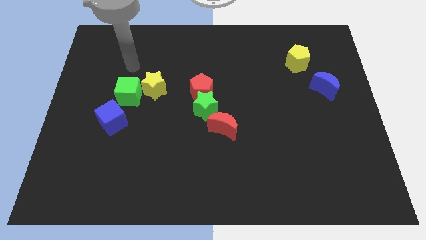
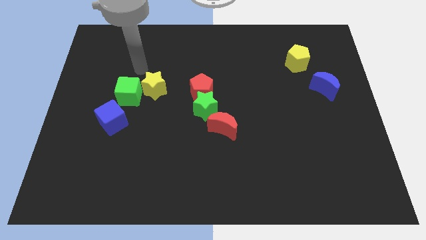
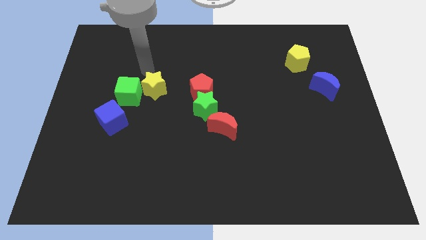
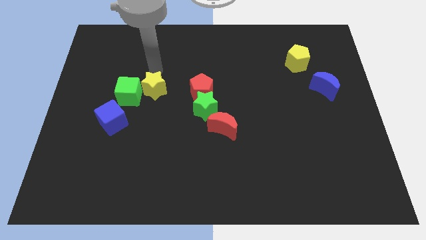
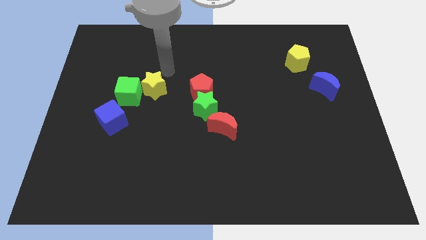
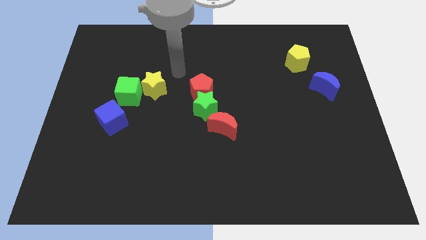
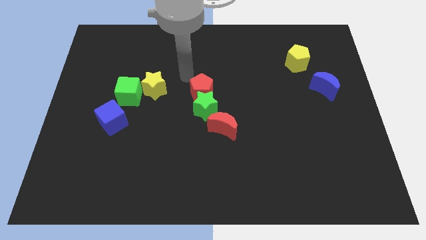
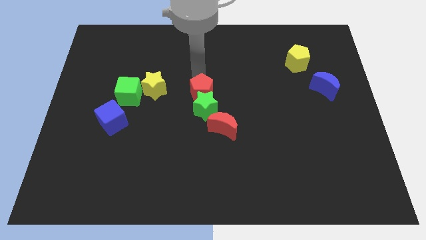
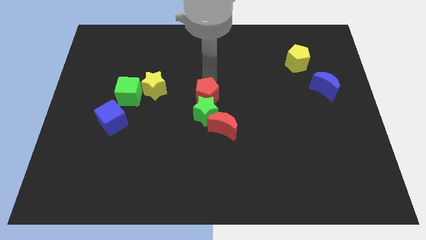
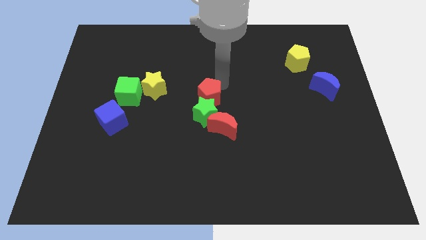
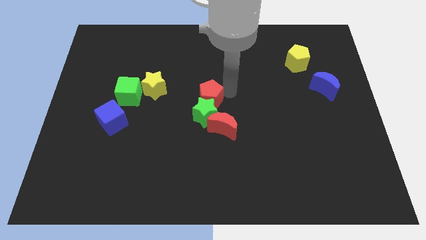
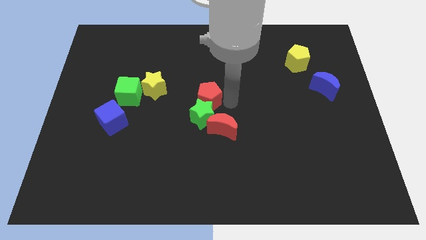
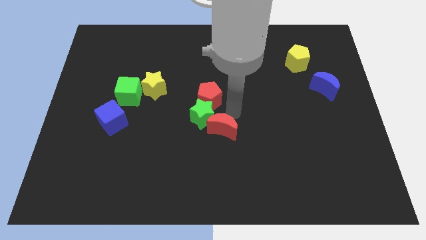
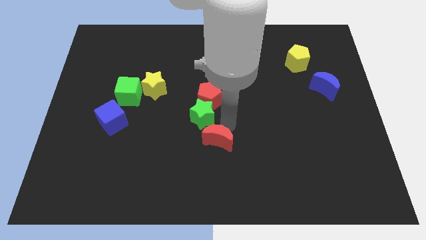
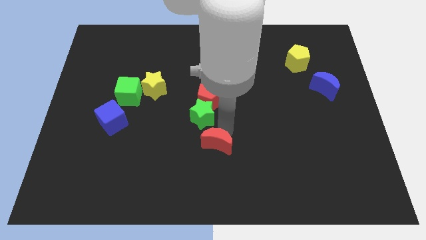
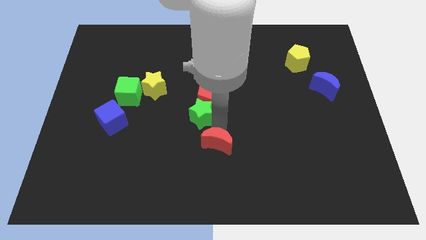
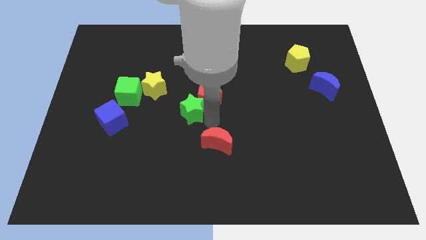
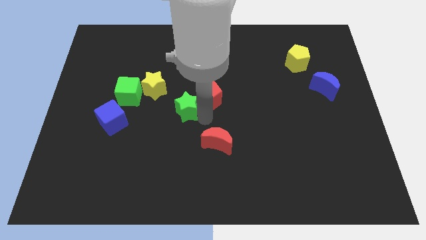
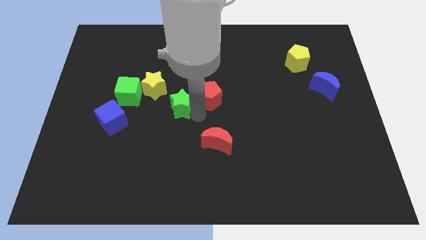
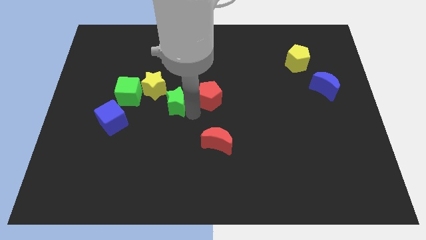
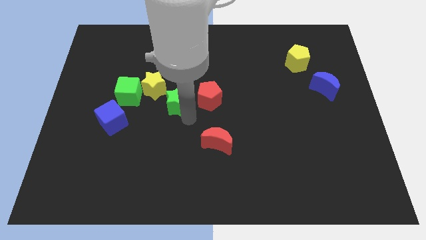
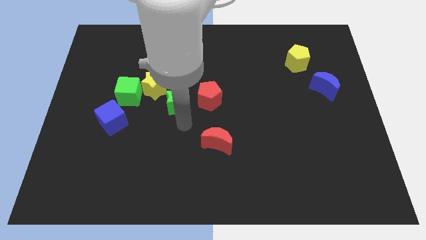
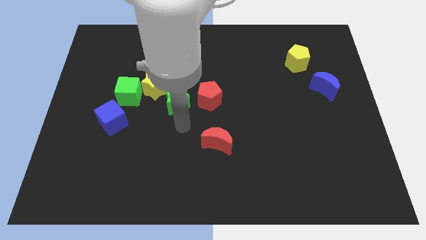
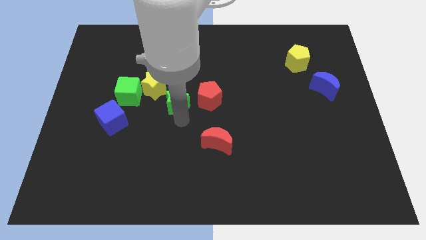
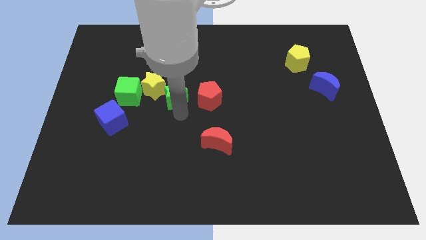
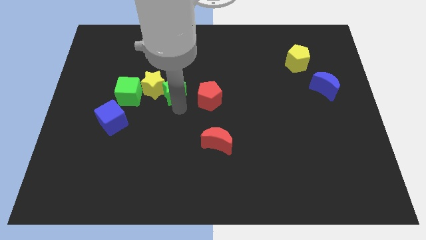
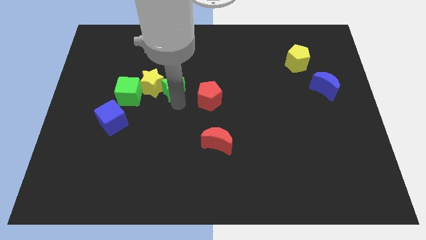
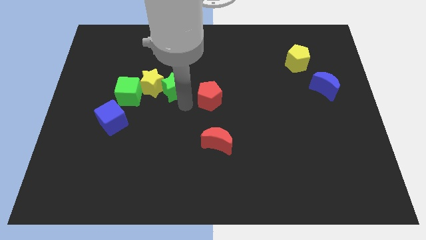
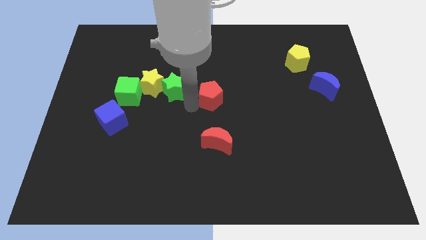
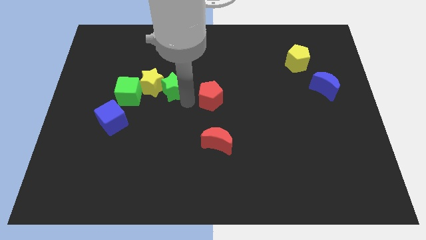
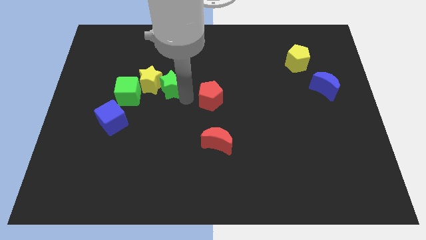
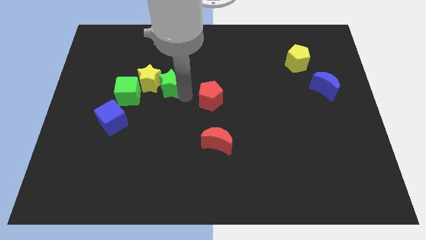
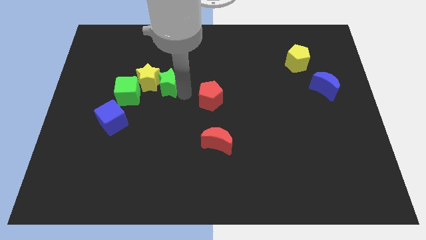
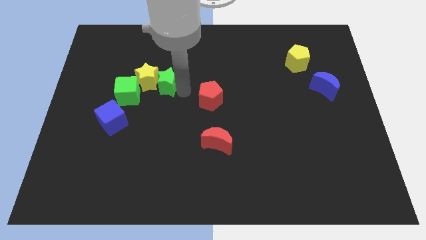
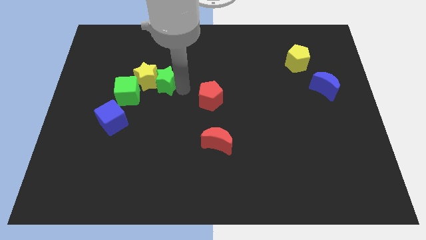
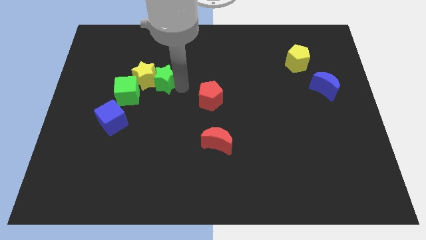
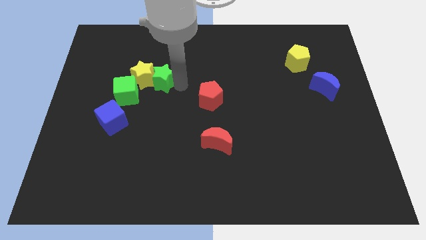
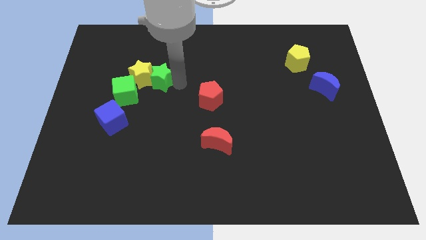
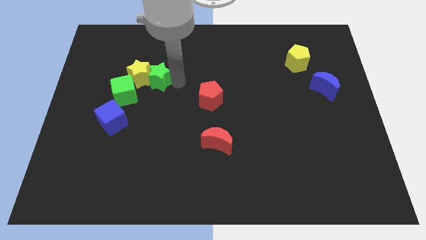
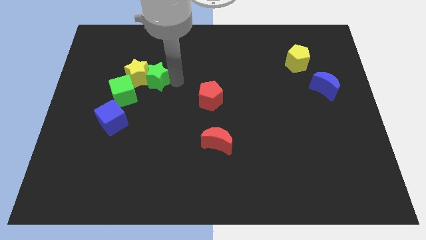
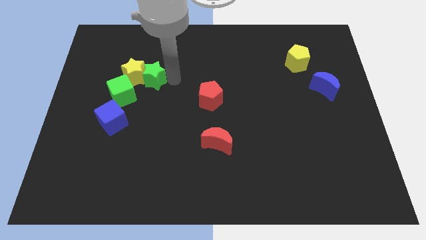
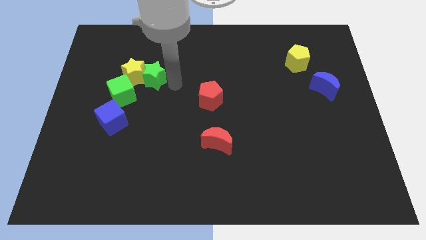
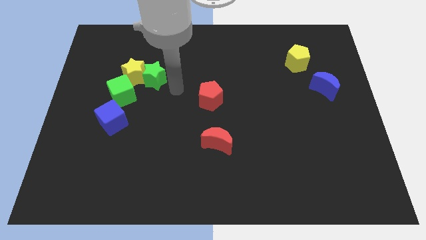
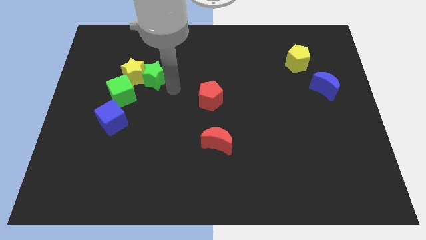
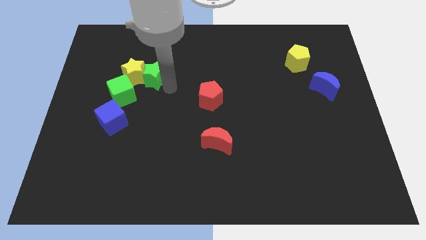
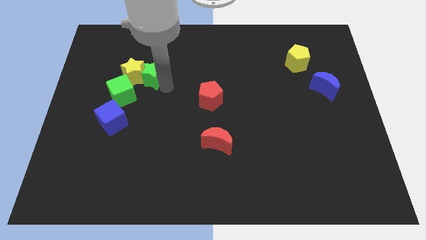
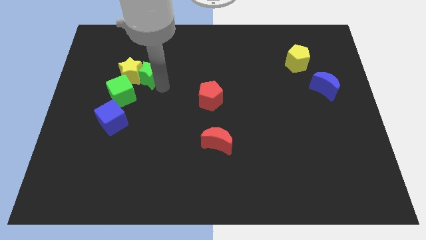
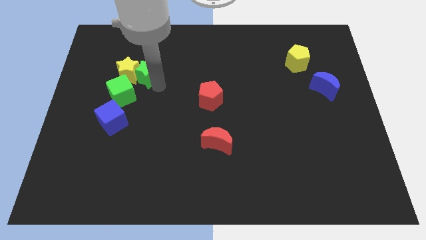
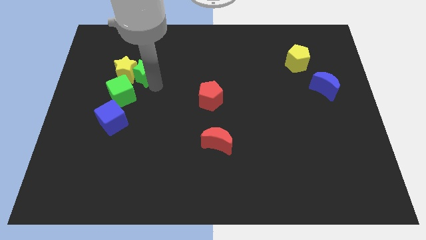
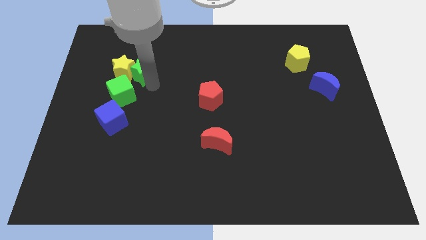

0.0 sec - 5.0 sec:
put the green star to the top of the green cube

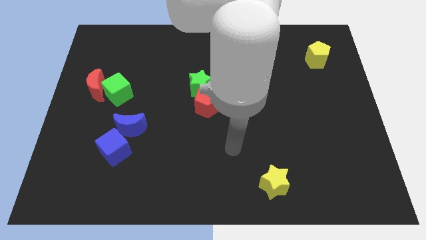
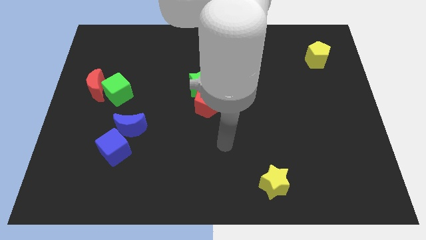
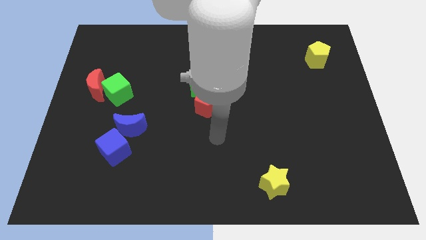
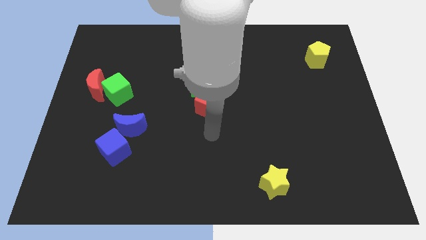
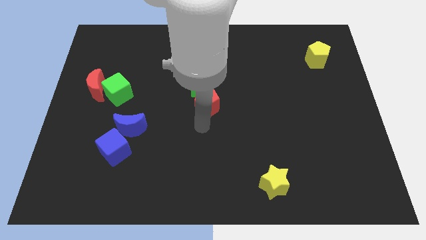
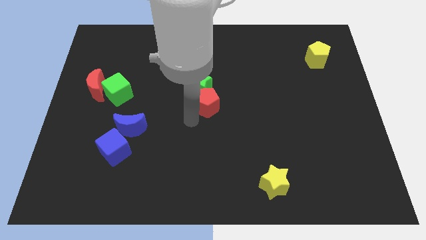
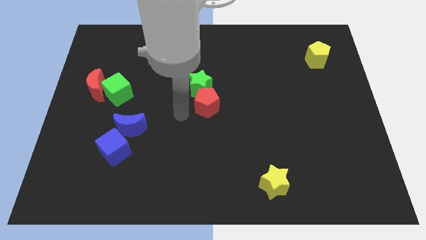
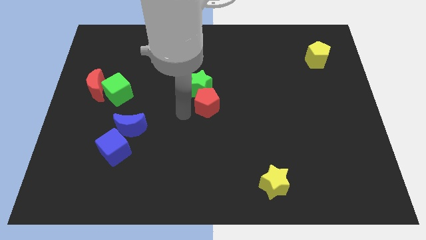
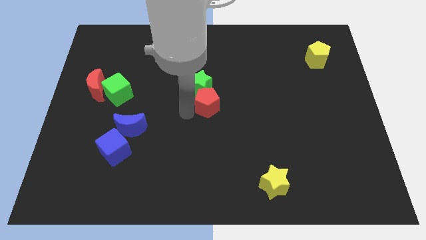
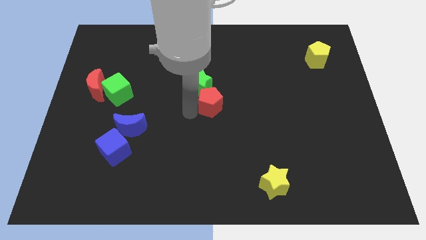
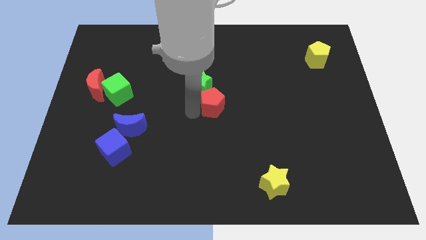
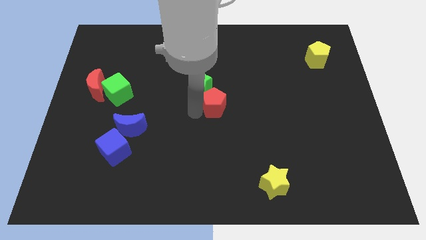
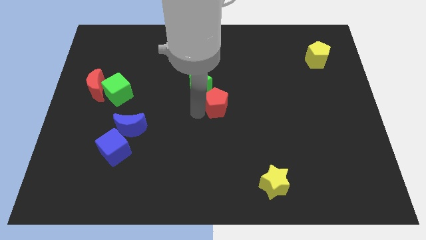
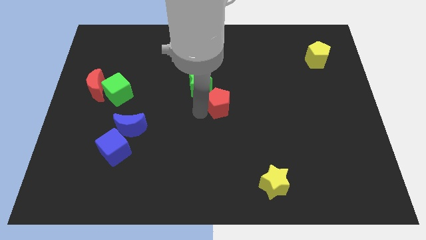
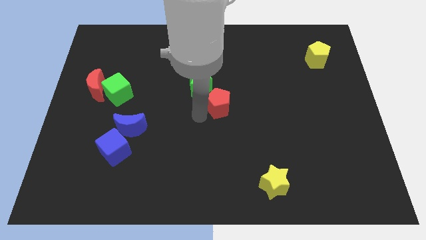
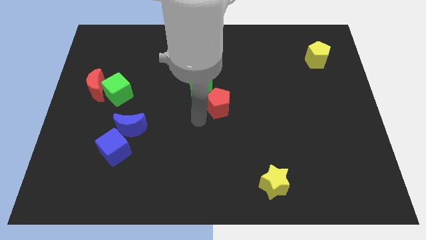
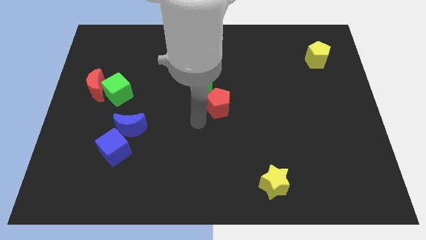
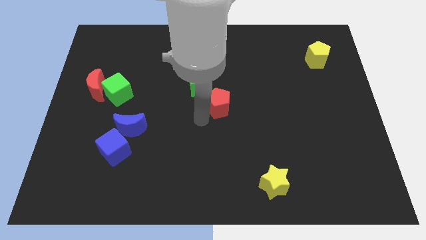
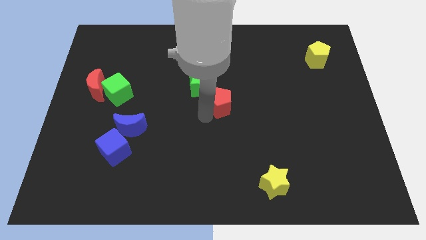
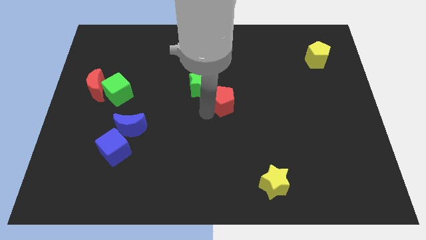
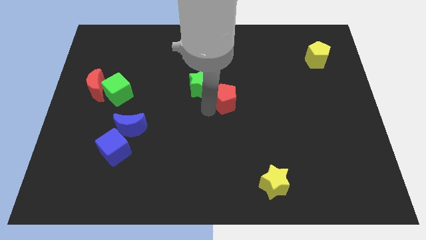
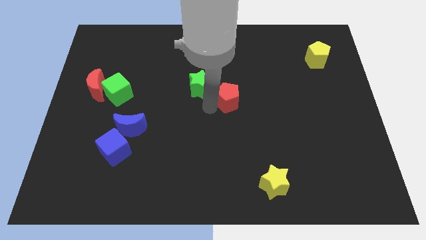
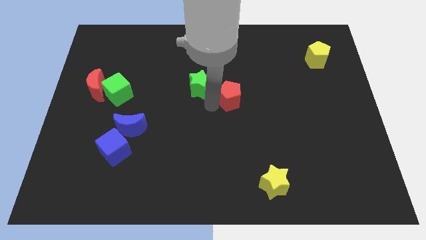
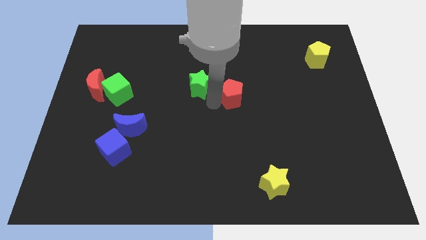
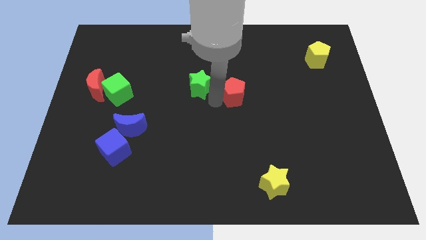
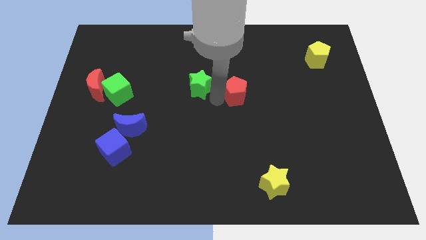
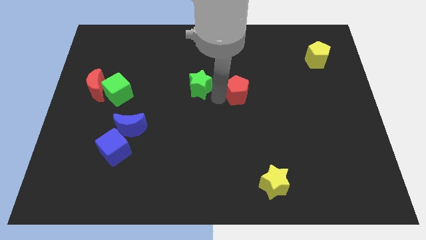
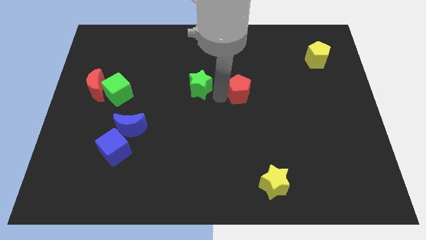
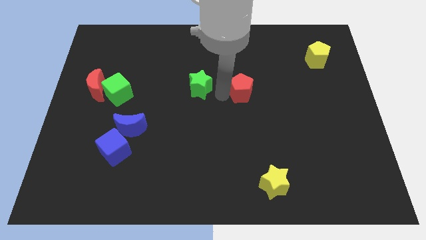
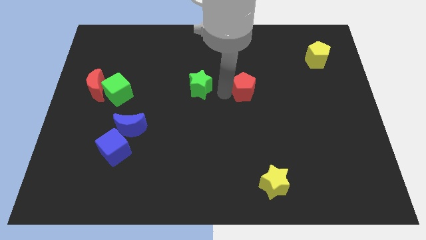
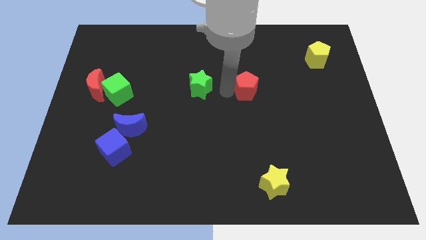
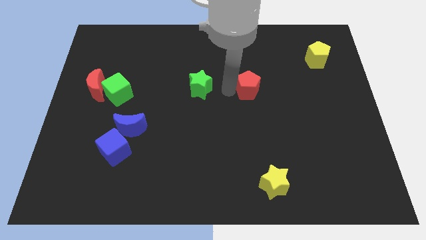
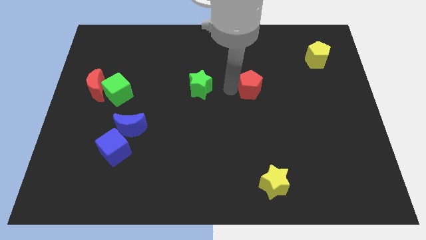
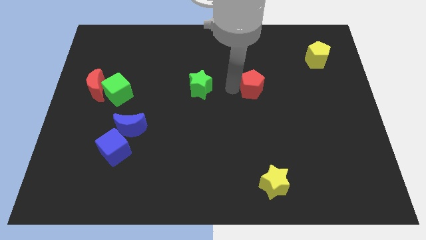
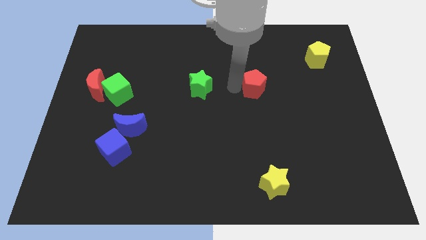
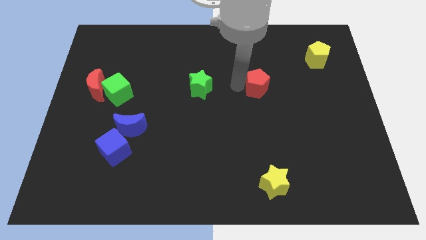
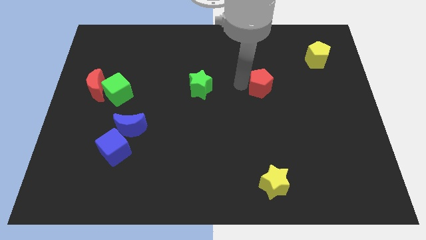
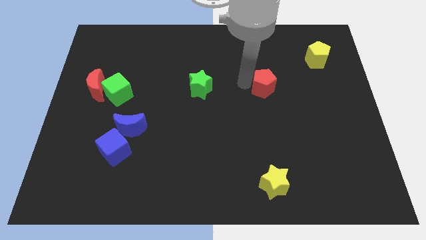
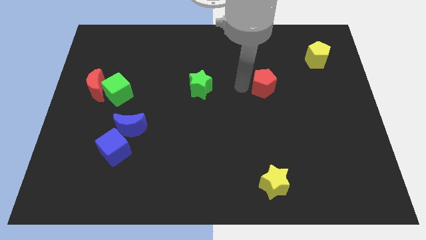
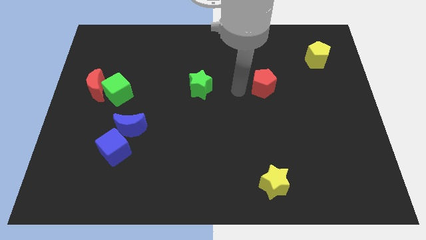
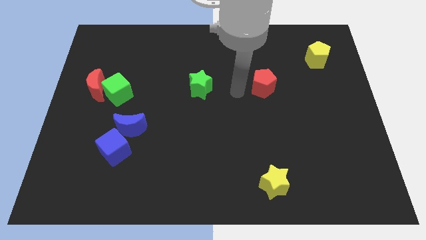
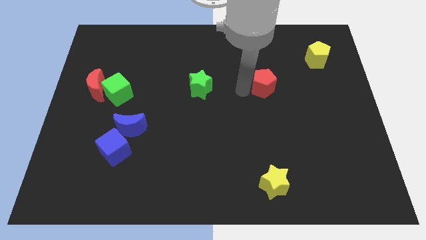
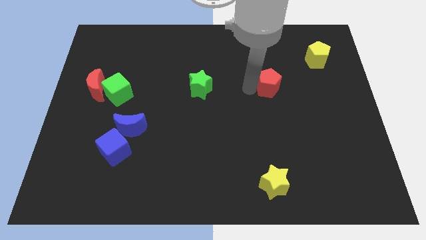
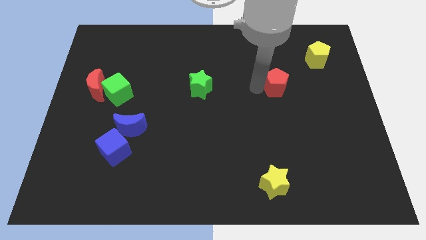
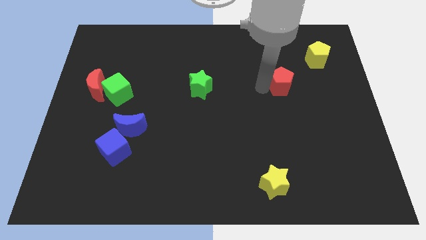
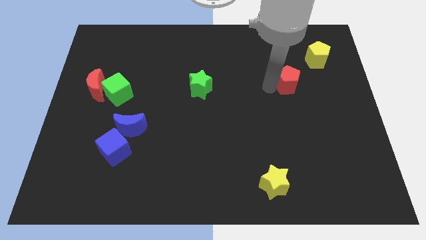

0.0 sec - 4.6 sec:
put the red pentagon to the bottom left of the yellow pentagon
